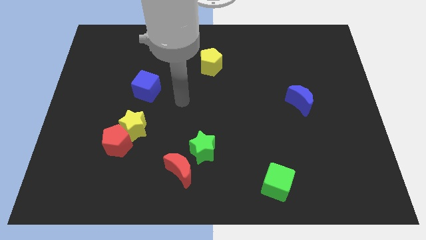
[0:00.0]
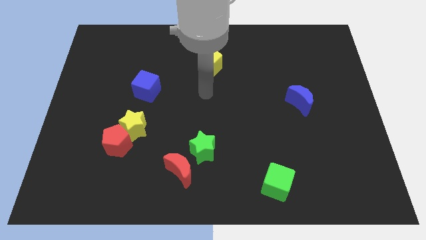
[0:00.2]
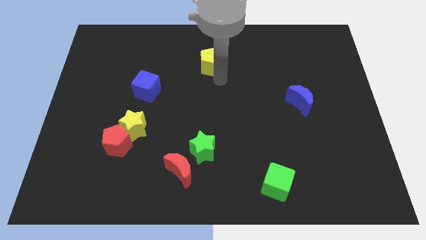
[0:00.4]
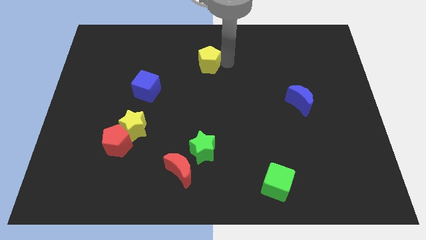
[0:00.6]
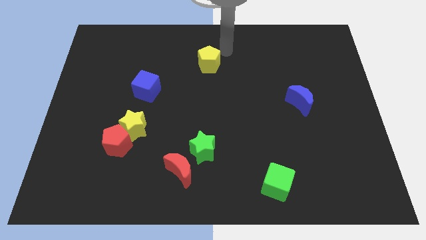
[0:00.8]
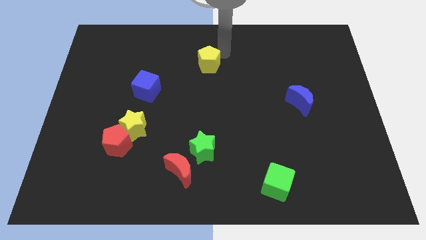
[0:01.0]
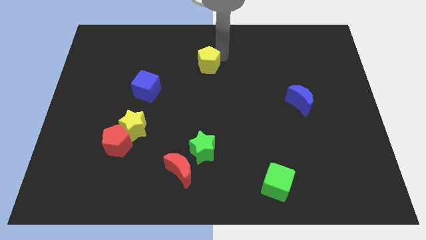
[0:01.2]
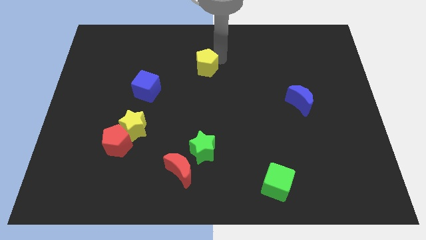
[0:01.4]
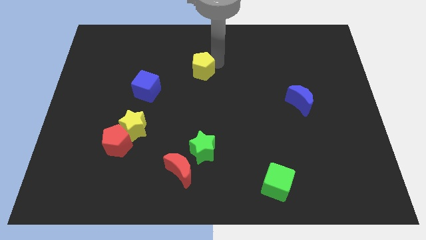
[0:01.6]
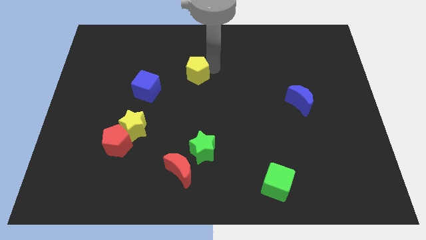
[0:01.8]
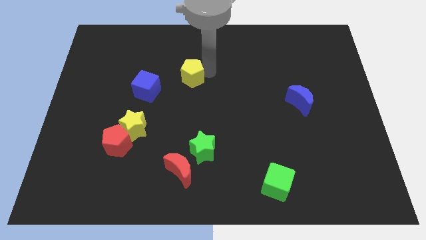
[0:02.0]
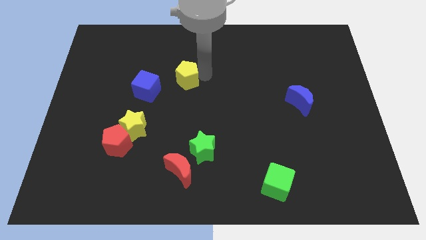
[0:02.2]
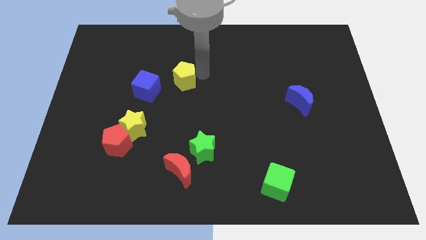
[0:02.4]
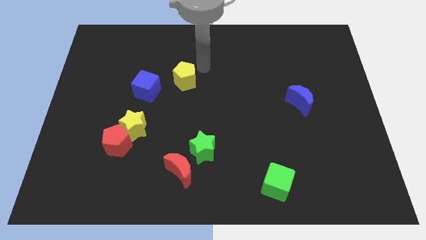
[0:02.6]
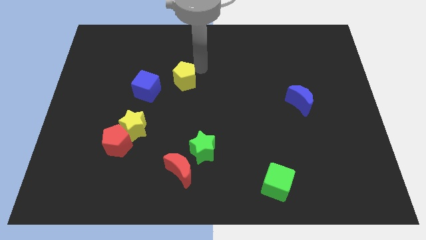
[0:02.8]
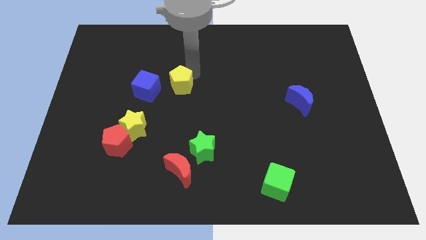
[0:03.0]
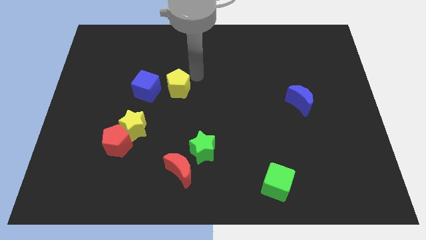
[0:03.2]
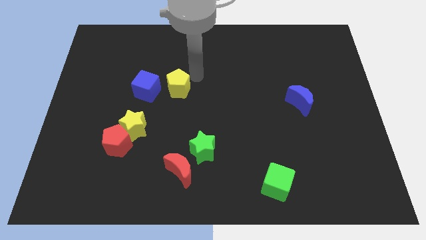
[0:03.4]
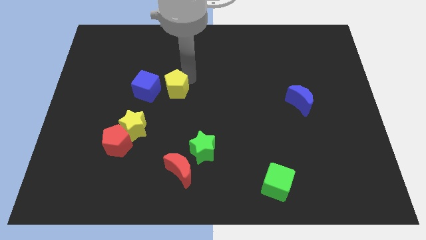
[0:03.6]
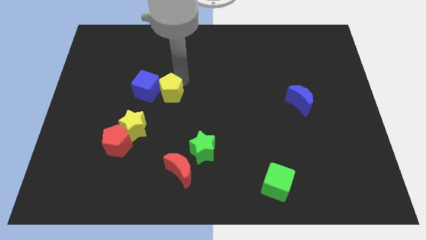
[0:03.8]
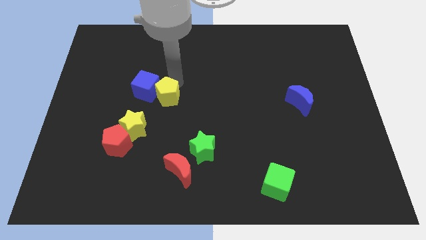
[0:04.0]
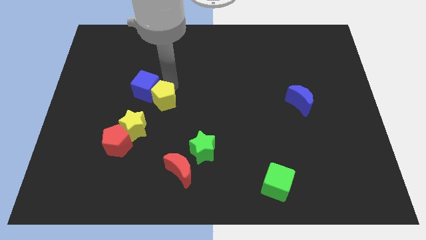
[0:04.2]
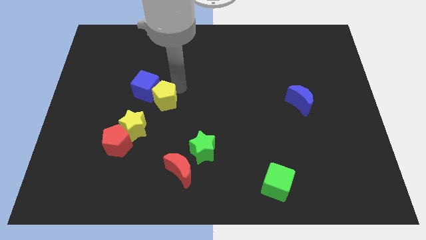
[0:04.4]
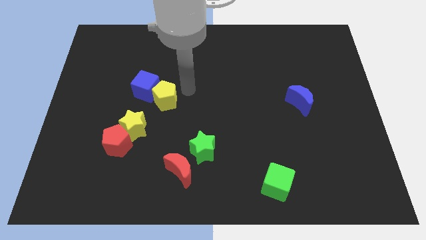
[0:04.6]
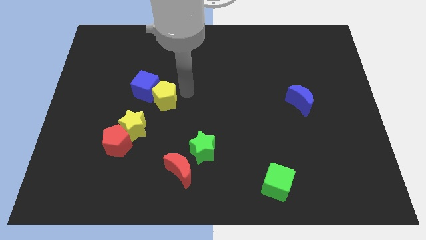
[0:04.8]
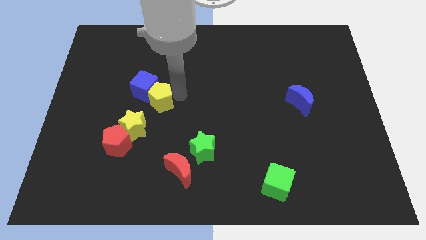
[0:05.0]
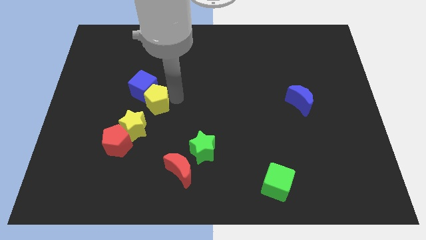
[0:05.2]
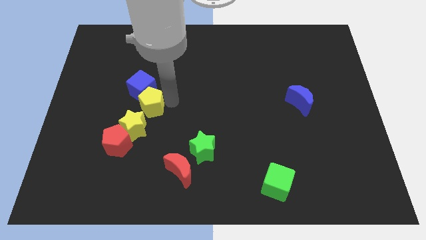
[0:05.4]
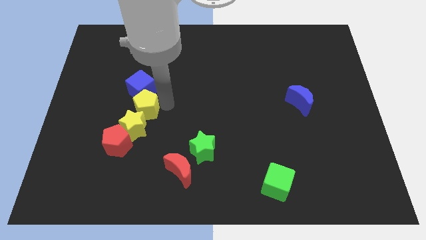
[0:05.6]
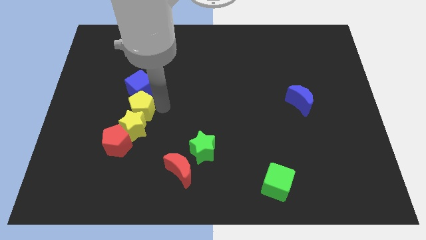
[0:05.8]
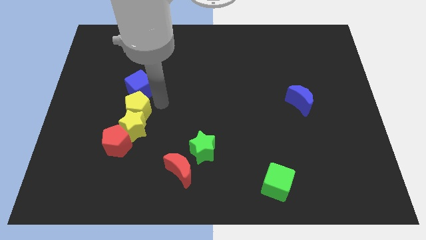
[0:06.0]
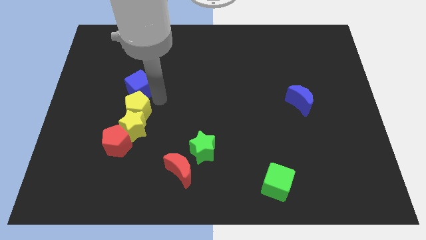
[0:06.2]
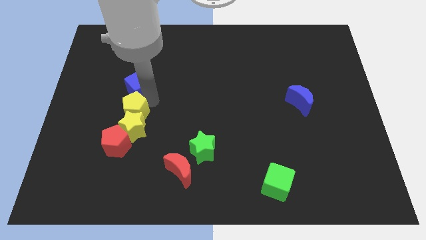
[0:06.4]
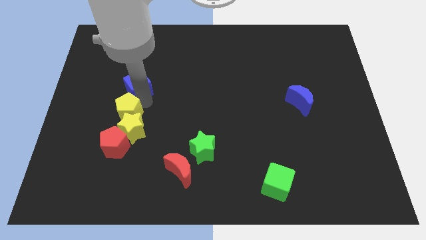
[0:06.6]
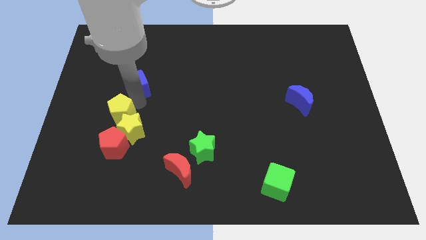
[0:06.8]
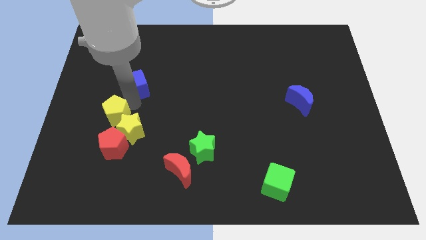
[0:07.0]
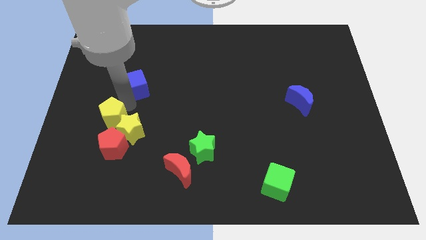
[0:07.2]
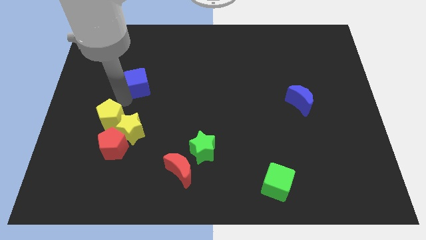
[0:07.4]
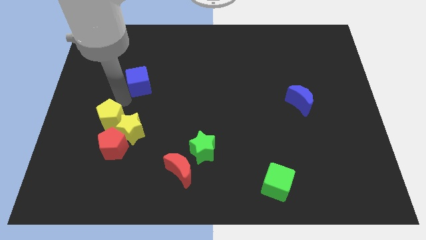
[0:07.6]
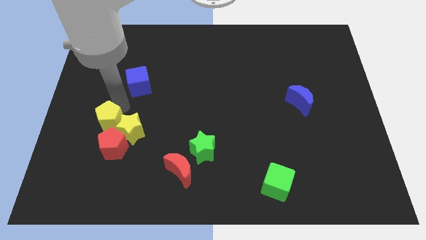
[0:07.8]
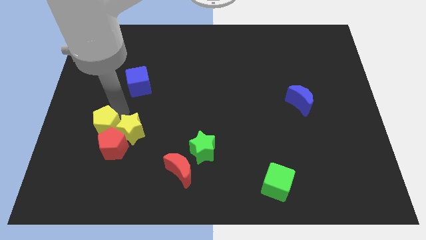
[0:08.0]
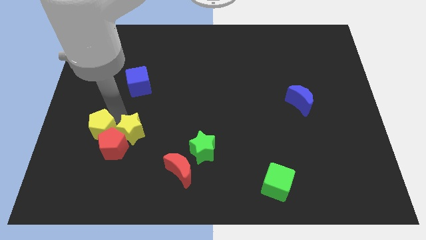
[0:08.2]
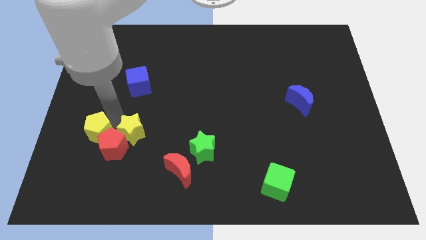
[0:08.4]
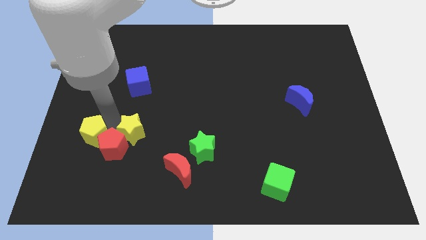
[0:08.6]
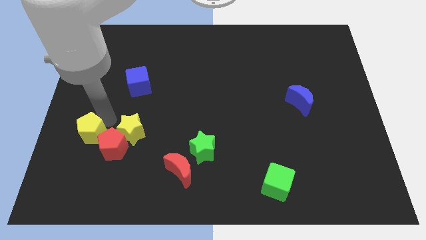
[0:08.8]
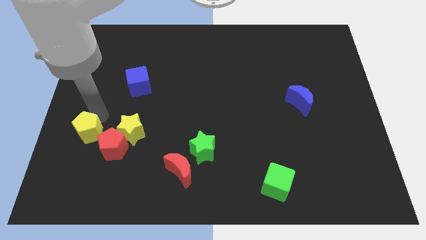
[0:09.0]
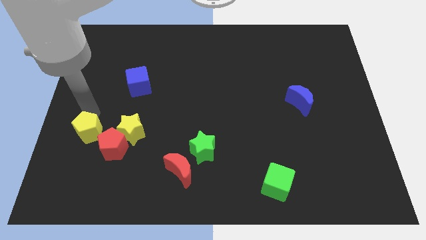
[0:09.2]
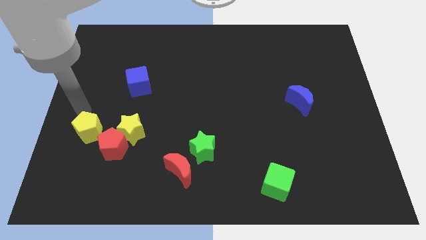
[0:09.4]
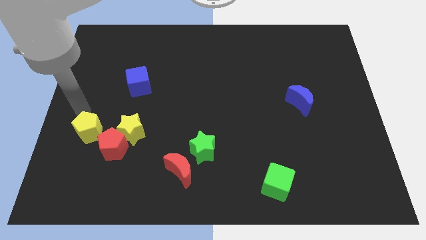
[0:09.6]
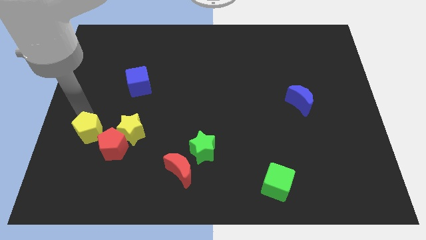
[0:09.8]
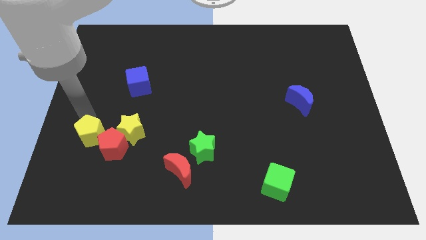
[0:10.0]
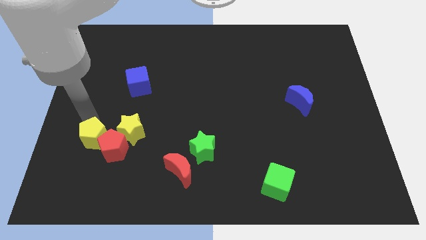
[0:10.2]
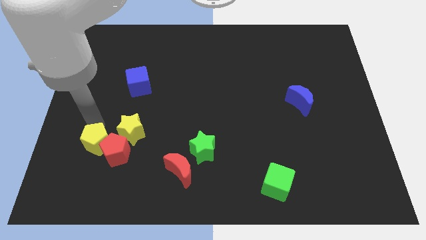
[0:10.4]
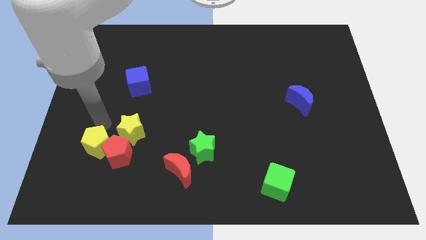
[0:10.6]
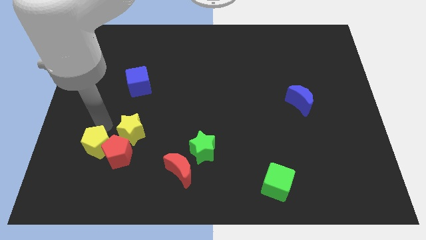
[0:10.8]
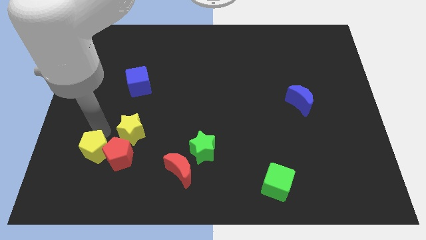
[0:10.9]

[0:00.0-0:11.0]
move the yellow pentagon to the bottom left side of the red pentagon
